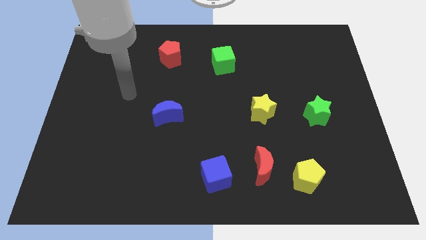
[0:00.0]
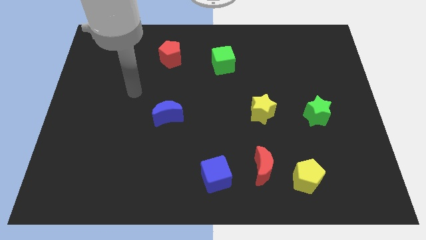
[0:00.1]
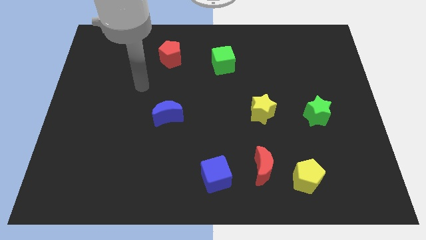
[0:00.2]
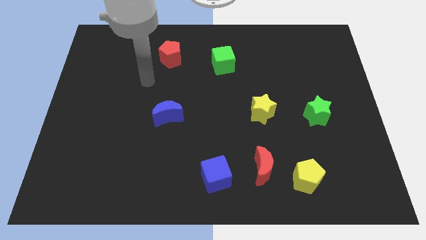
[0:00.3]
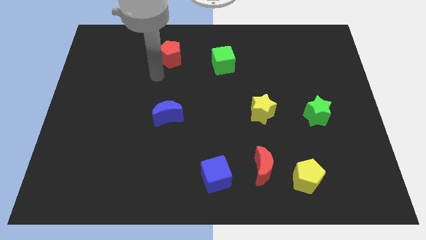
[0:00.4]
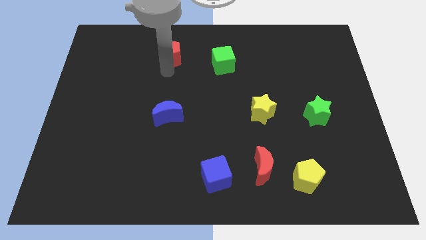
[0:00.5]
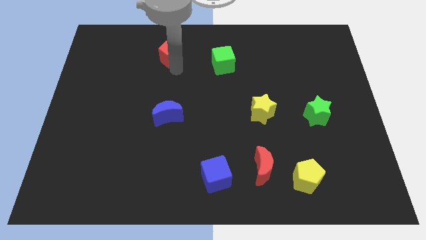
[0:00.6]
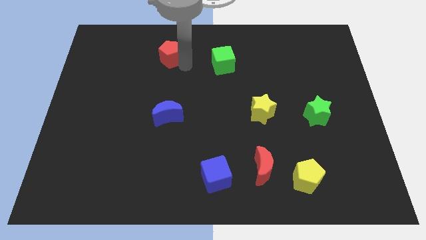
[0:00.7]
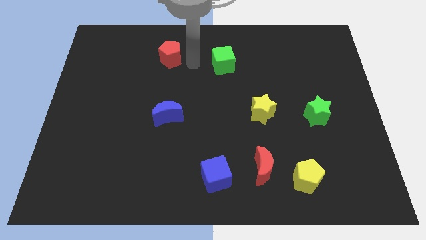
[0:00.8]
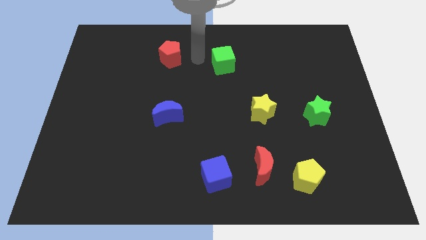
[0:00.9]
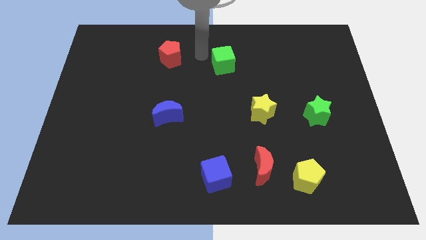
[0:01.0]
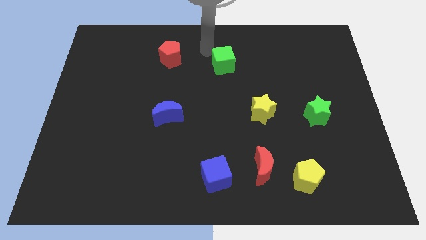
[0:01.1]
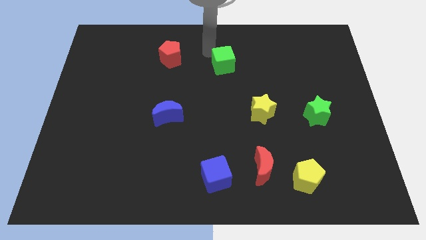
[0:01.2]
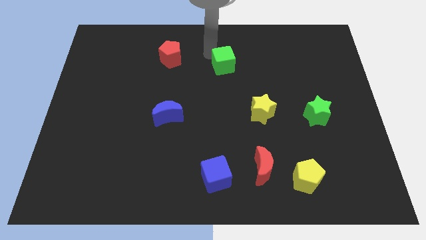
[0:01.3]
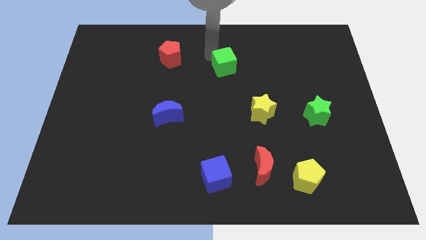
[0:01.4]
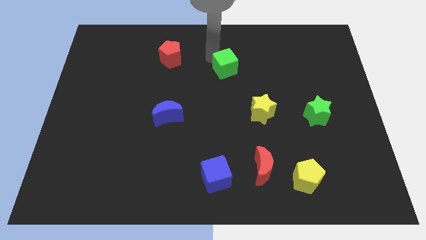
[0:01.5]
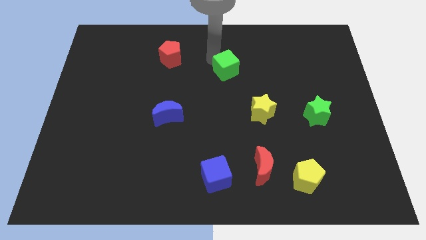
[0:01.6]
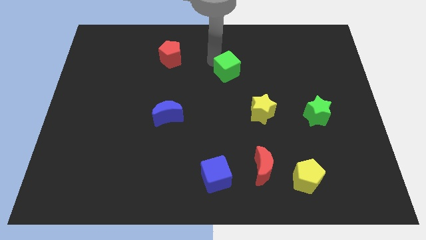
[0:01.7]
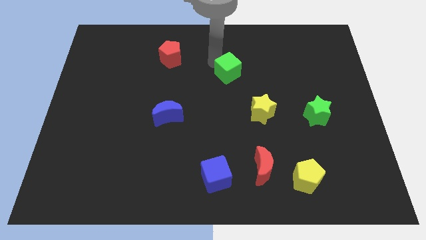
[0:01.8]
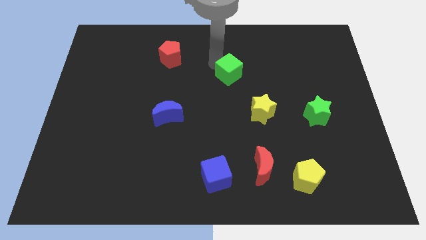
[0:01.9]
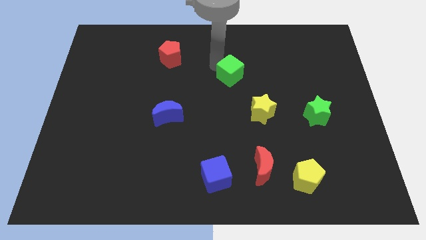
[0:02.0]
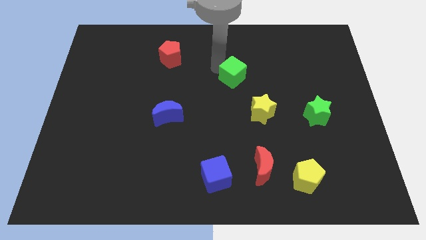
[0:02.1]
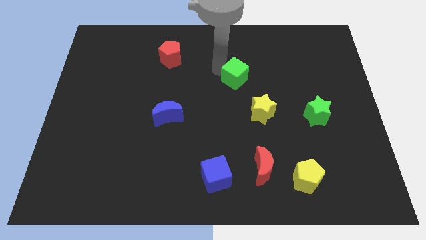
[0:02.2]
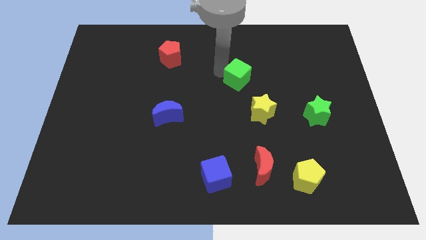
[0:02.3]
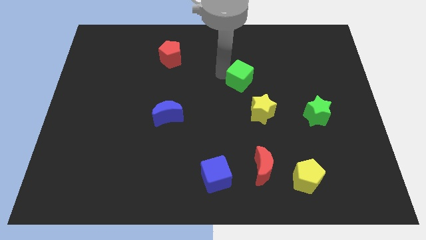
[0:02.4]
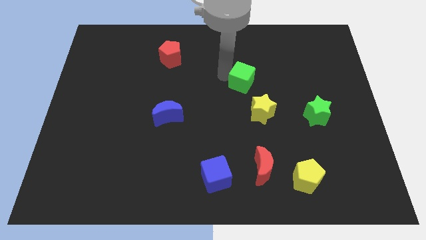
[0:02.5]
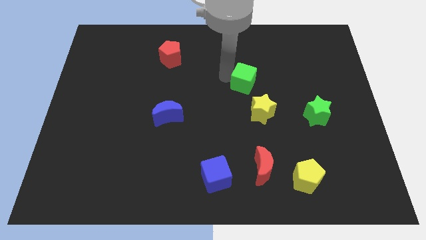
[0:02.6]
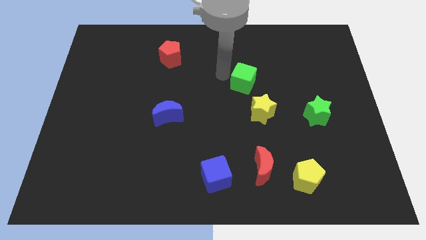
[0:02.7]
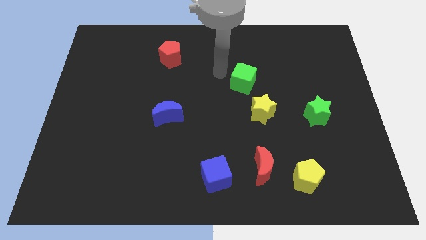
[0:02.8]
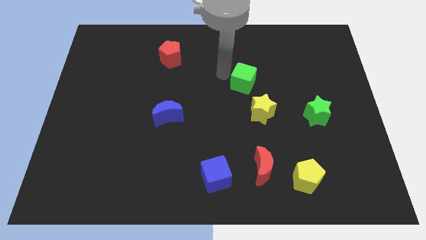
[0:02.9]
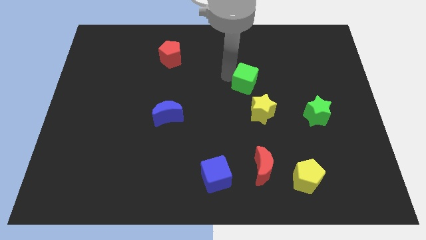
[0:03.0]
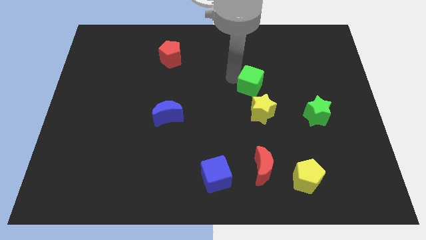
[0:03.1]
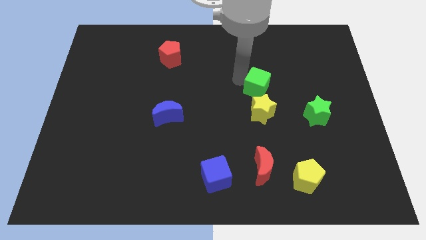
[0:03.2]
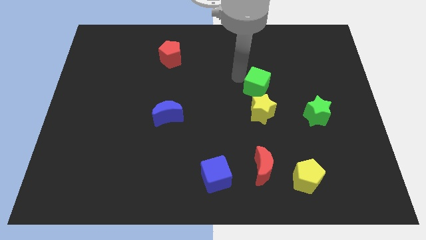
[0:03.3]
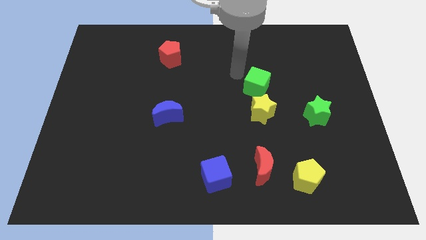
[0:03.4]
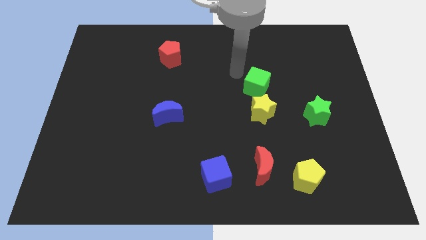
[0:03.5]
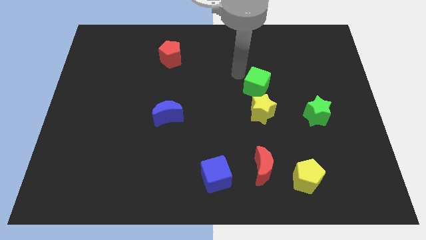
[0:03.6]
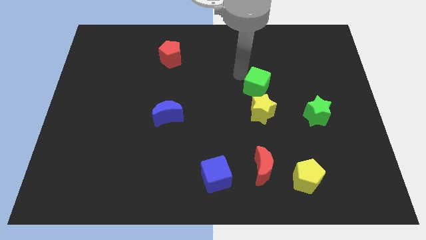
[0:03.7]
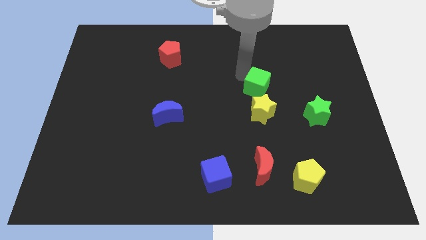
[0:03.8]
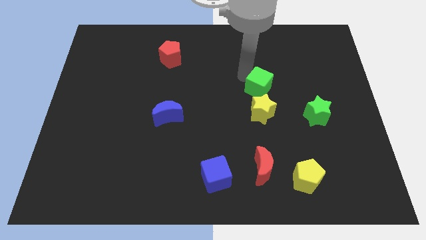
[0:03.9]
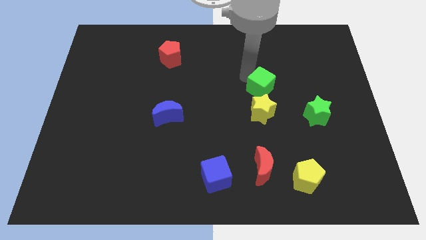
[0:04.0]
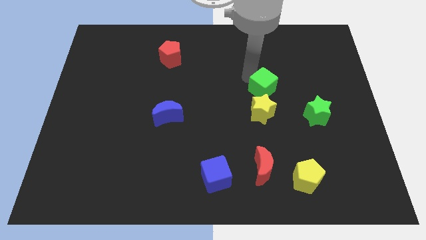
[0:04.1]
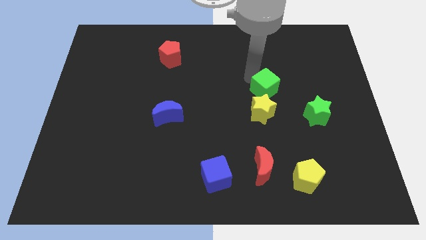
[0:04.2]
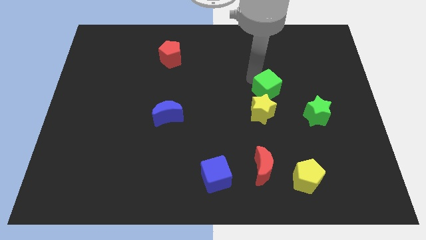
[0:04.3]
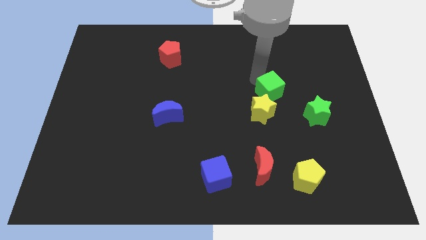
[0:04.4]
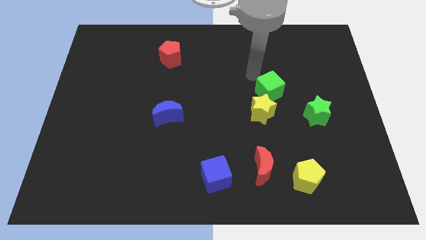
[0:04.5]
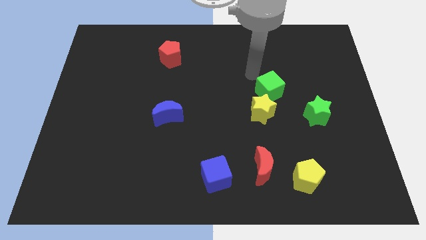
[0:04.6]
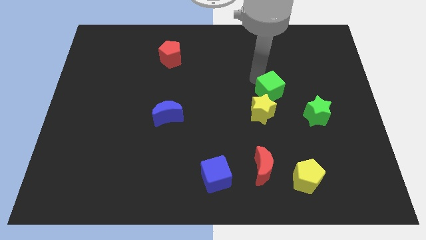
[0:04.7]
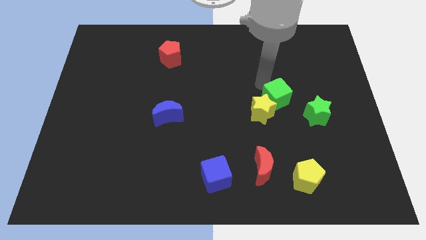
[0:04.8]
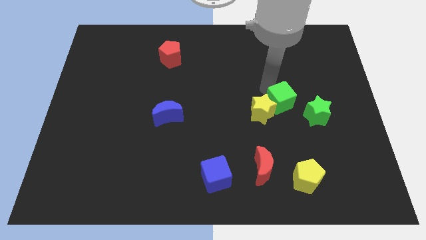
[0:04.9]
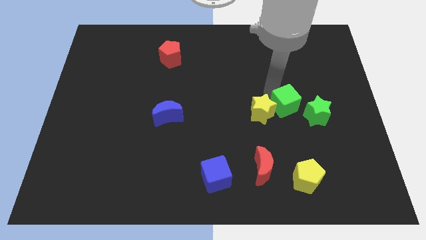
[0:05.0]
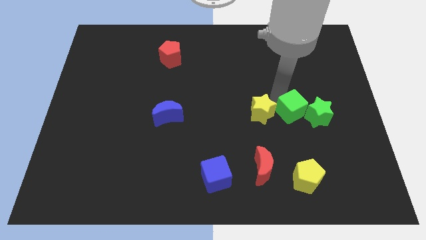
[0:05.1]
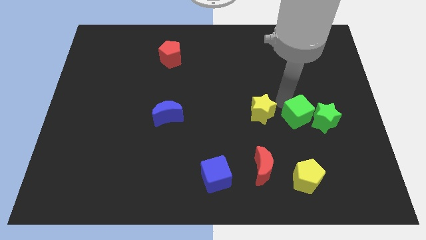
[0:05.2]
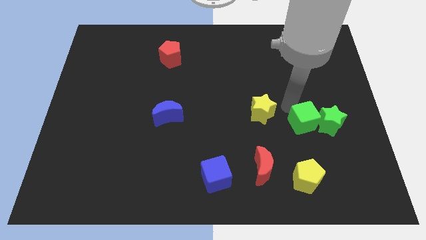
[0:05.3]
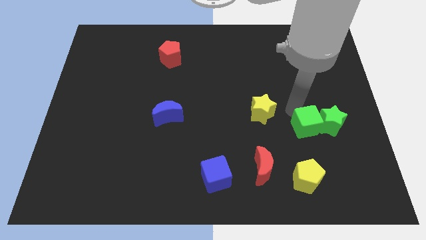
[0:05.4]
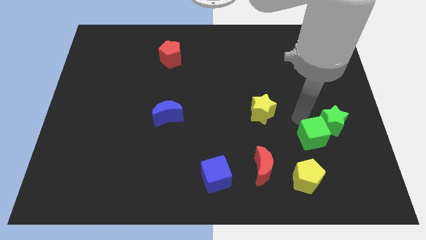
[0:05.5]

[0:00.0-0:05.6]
move the green cube below the green star

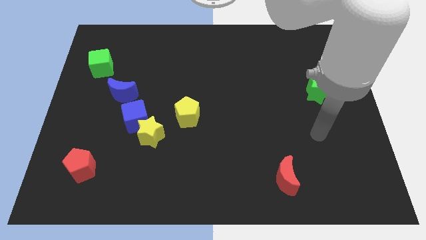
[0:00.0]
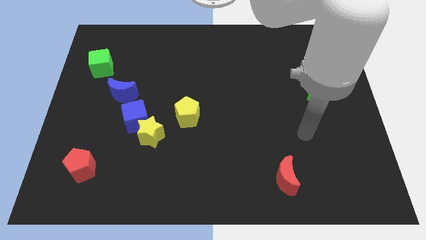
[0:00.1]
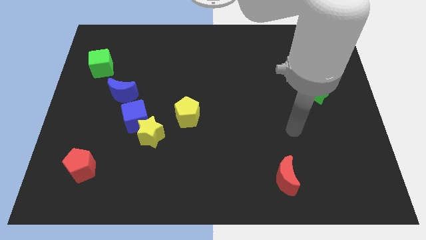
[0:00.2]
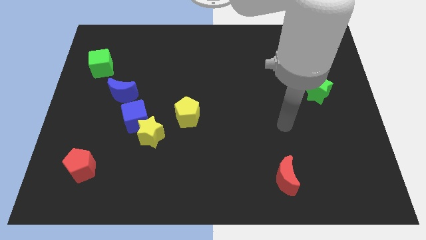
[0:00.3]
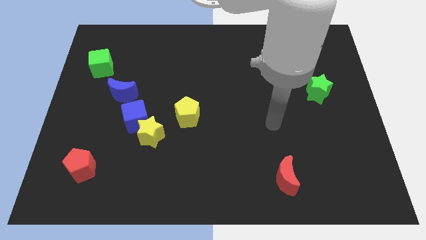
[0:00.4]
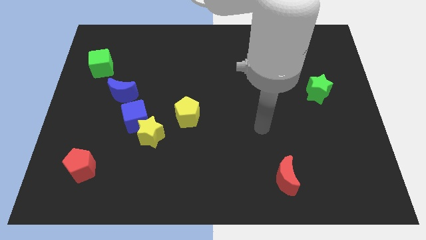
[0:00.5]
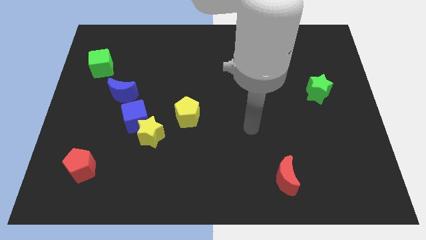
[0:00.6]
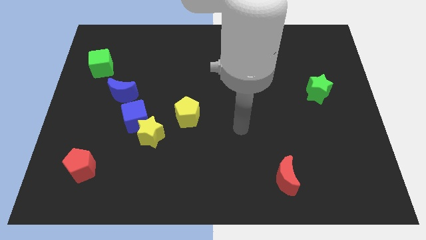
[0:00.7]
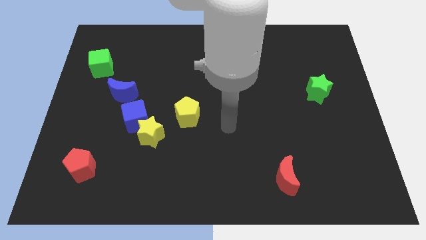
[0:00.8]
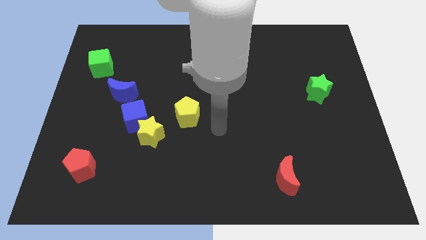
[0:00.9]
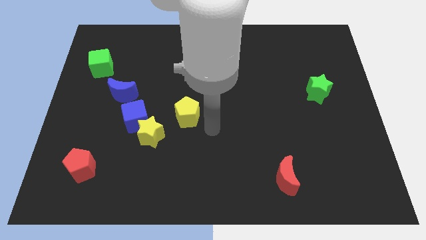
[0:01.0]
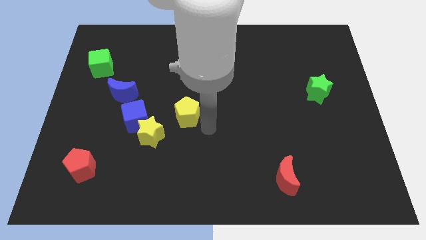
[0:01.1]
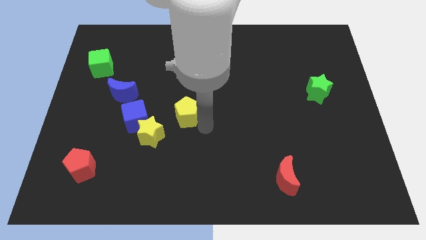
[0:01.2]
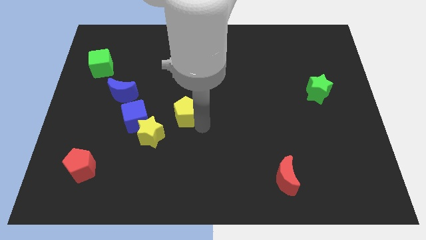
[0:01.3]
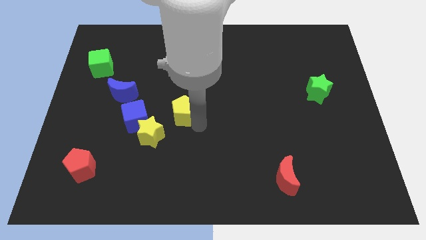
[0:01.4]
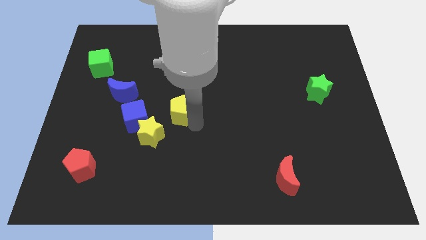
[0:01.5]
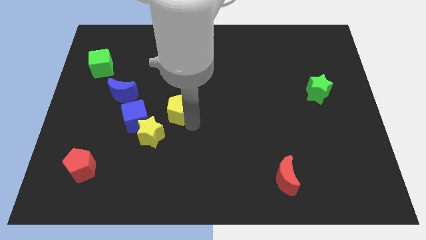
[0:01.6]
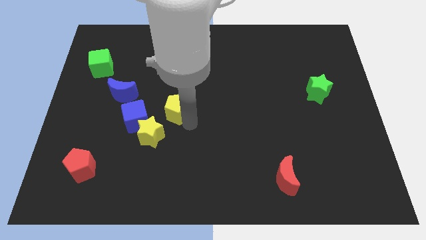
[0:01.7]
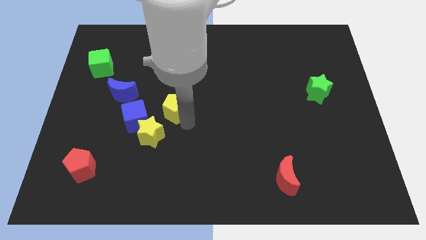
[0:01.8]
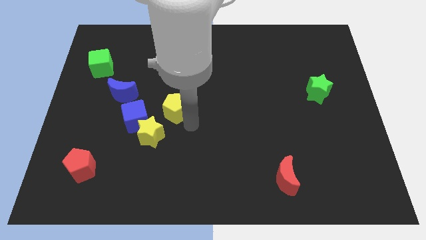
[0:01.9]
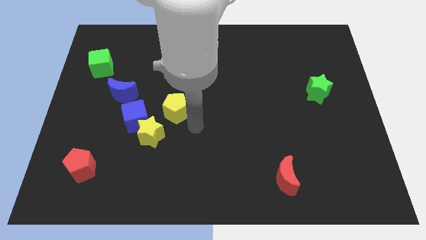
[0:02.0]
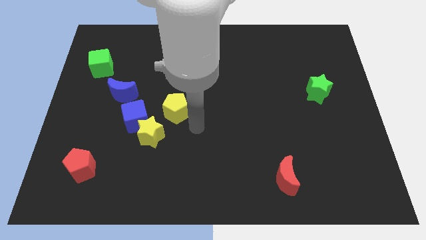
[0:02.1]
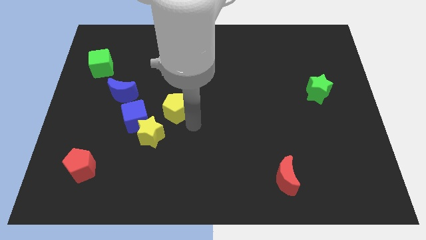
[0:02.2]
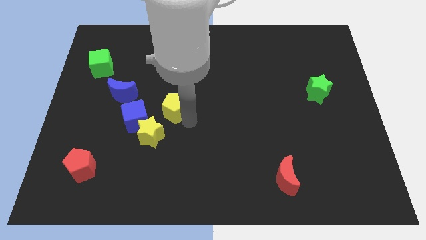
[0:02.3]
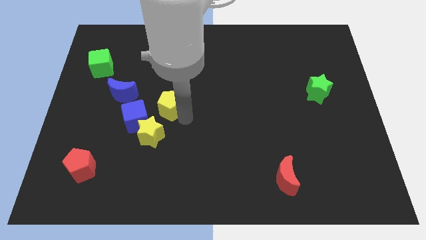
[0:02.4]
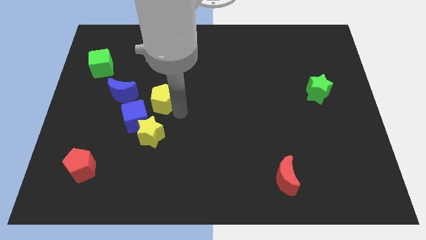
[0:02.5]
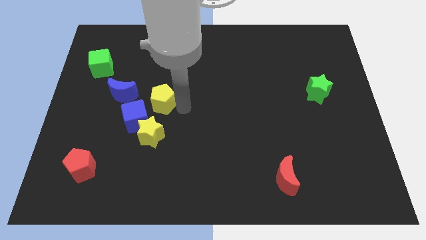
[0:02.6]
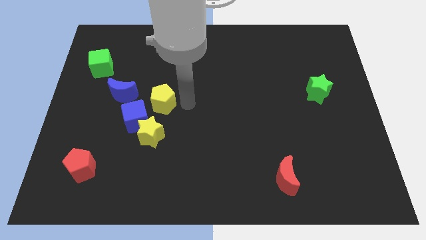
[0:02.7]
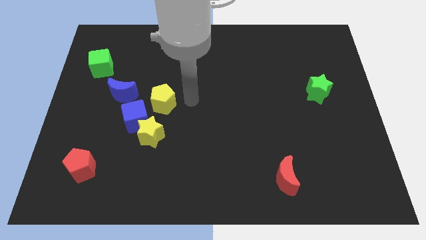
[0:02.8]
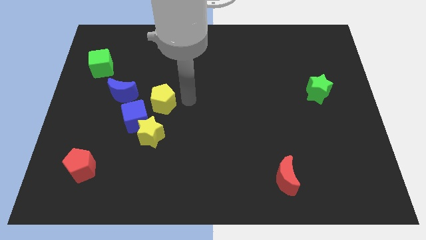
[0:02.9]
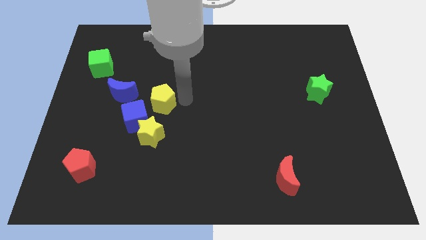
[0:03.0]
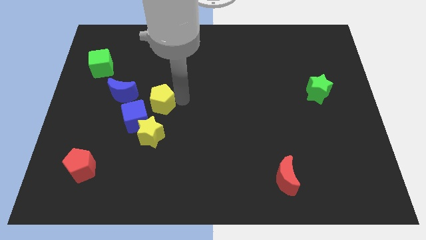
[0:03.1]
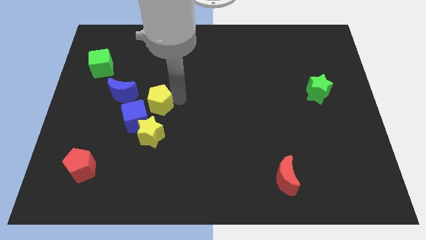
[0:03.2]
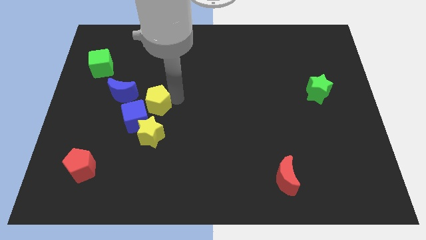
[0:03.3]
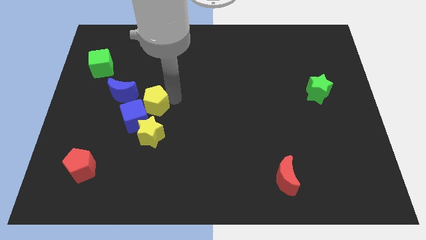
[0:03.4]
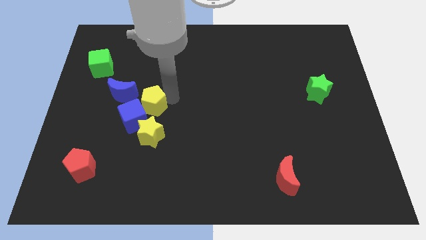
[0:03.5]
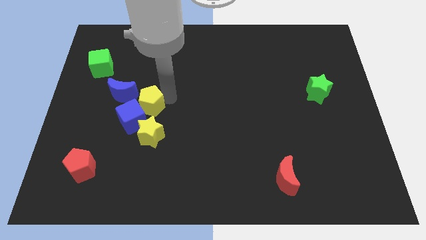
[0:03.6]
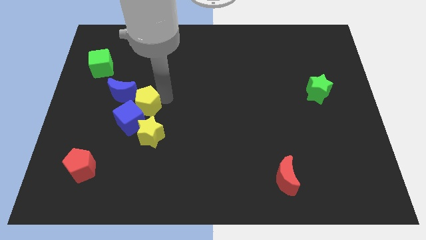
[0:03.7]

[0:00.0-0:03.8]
slide the yellow pentagon diagonally up and to the left of the yellow star
